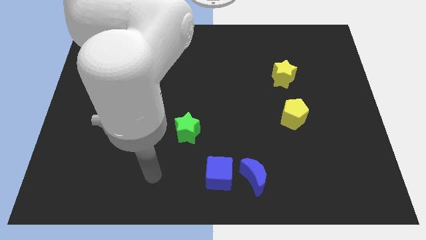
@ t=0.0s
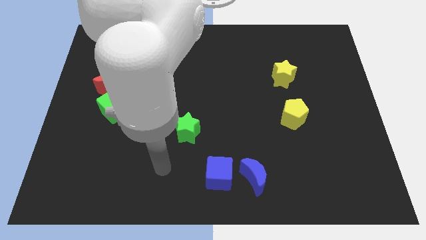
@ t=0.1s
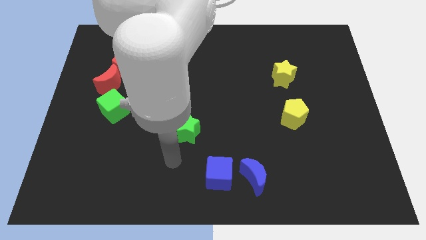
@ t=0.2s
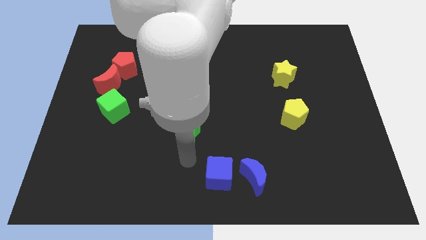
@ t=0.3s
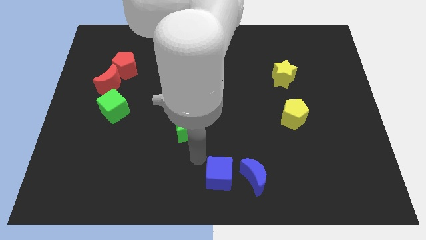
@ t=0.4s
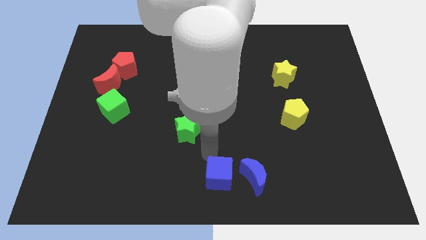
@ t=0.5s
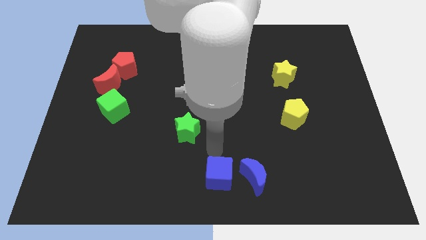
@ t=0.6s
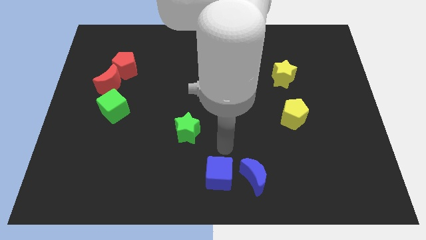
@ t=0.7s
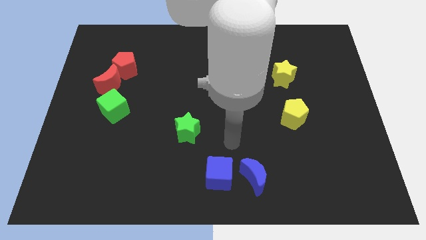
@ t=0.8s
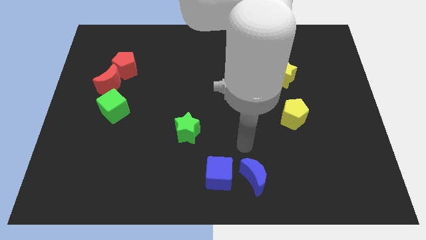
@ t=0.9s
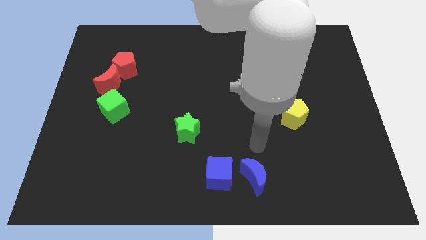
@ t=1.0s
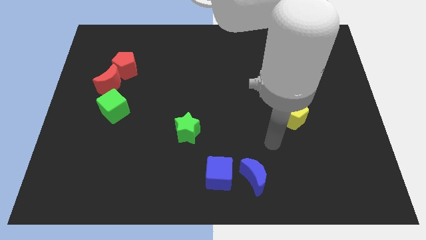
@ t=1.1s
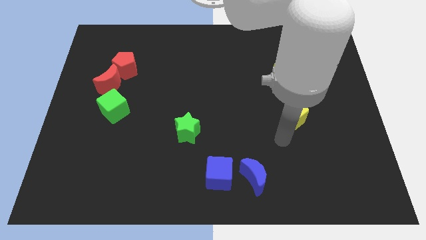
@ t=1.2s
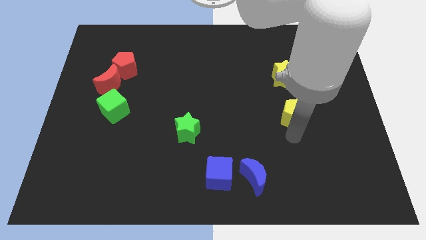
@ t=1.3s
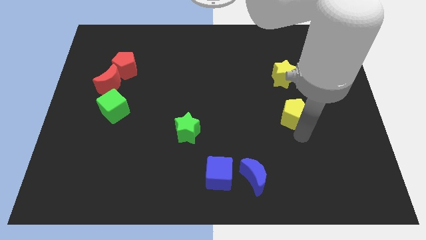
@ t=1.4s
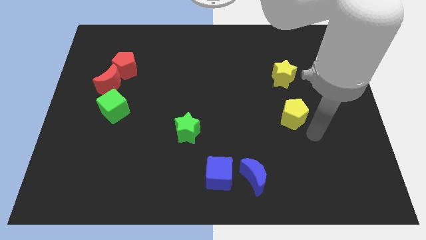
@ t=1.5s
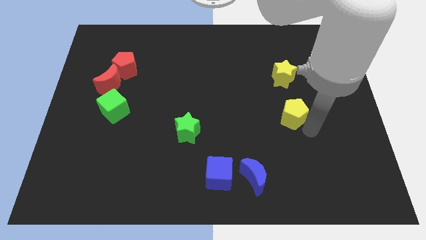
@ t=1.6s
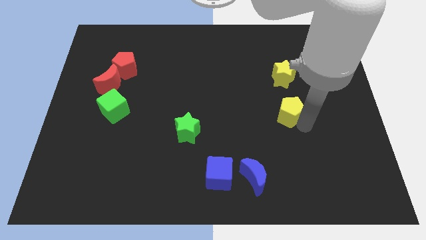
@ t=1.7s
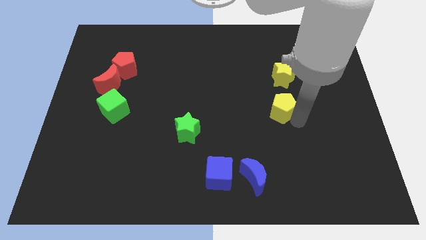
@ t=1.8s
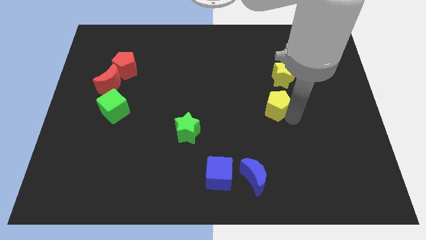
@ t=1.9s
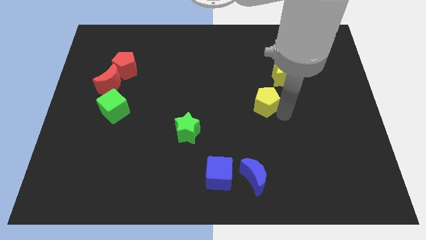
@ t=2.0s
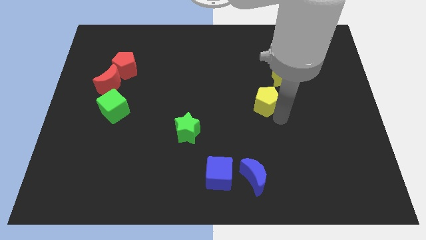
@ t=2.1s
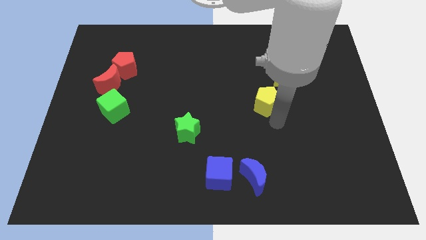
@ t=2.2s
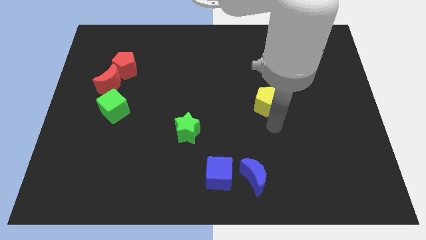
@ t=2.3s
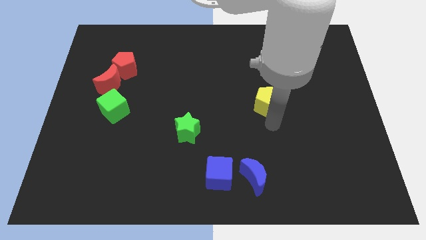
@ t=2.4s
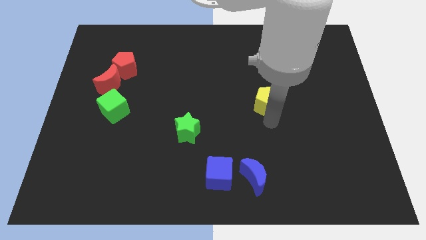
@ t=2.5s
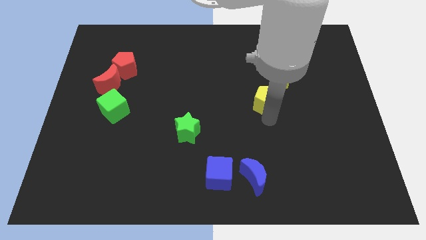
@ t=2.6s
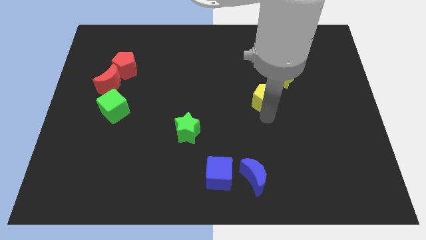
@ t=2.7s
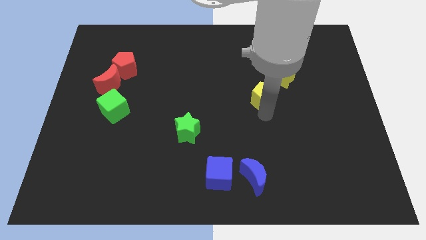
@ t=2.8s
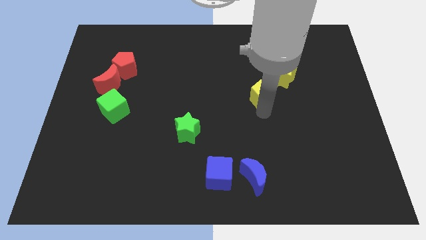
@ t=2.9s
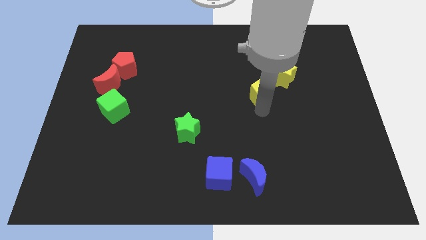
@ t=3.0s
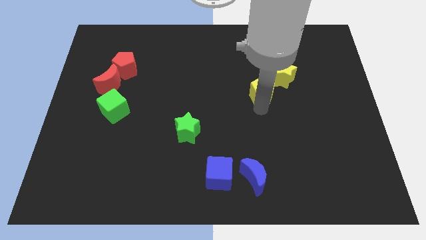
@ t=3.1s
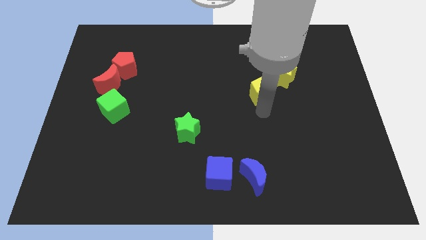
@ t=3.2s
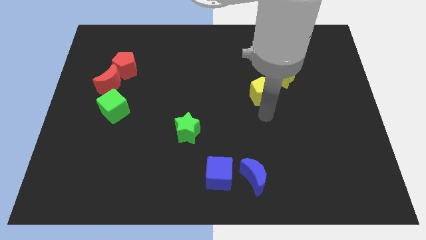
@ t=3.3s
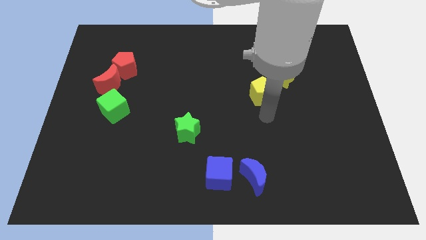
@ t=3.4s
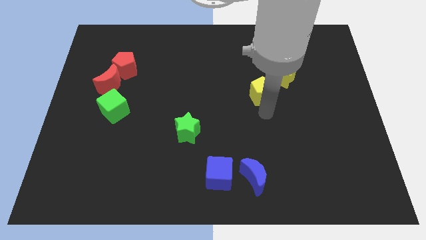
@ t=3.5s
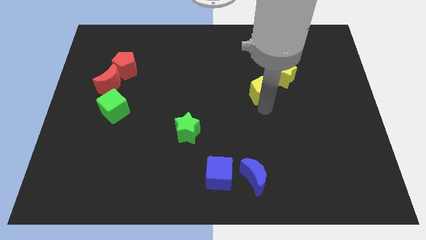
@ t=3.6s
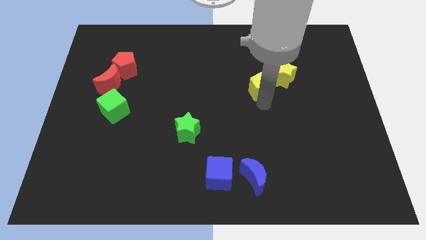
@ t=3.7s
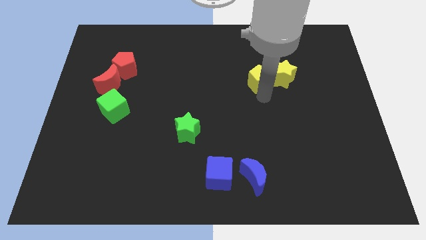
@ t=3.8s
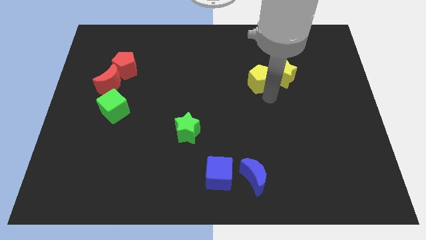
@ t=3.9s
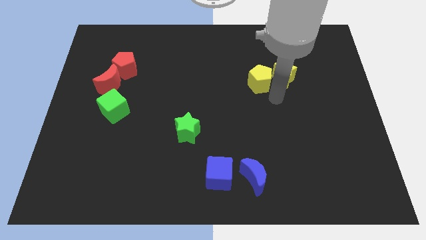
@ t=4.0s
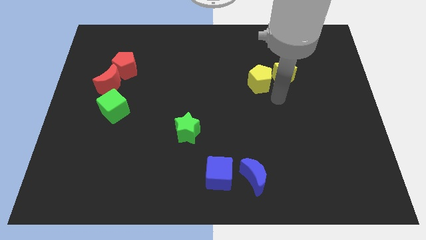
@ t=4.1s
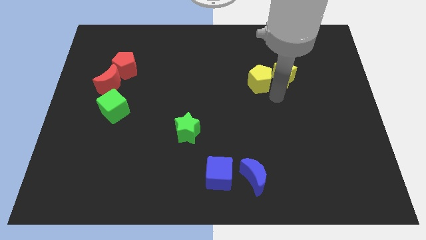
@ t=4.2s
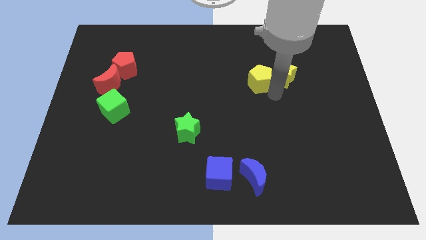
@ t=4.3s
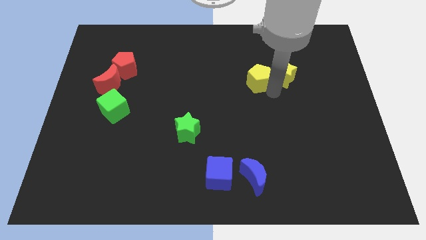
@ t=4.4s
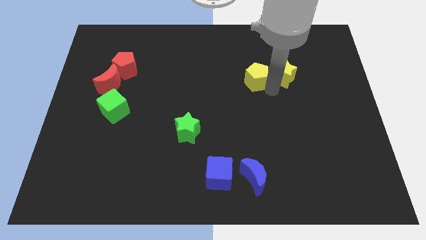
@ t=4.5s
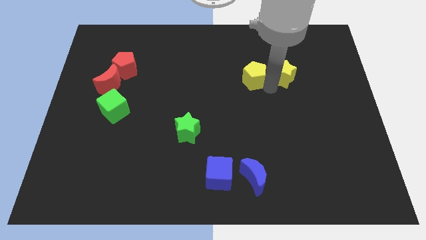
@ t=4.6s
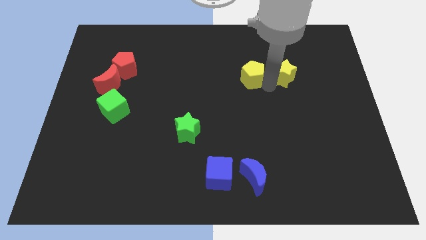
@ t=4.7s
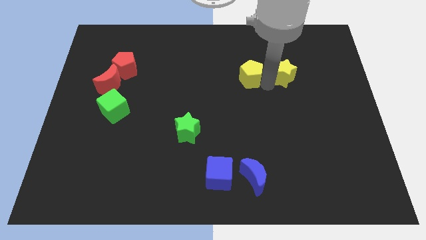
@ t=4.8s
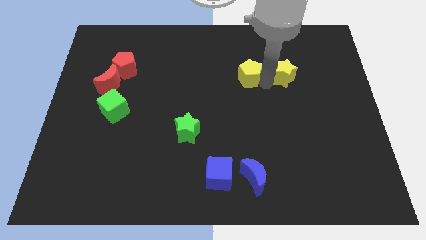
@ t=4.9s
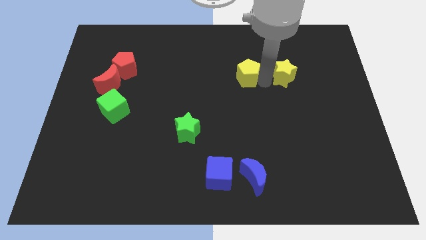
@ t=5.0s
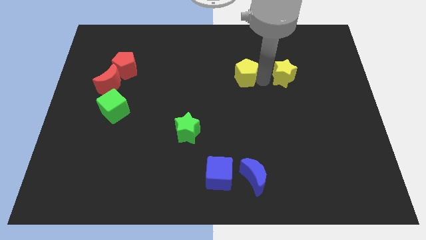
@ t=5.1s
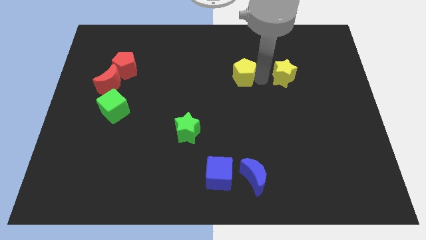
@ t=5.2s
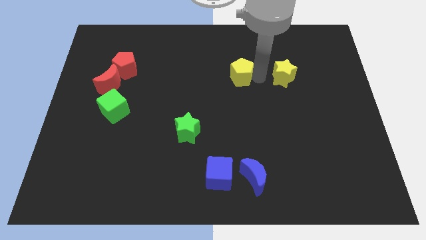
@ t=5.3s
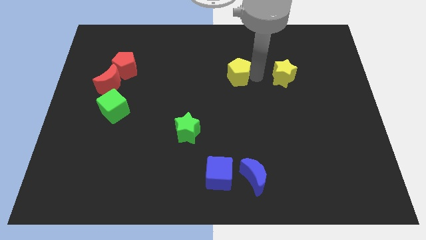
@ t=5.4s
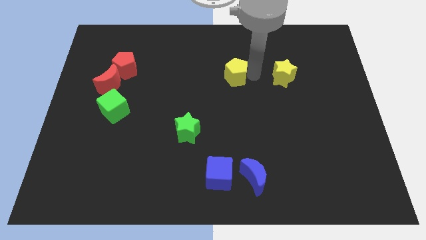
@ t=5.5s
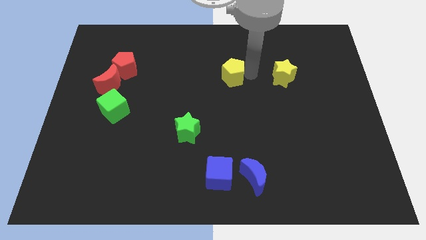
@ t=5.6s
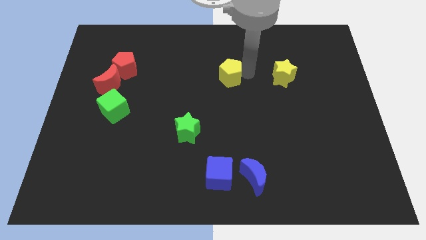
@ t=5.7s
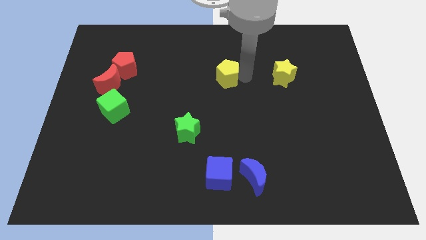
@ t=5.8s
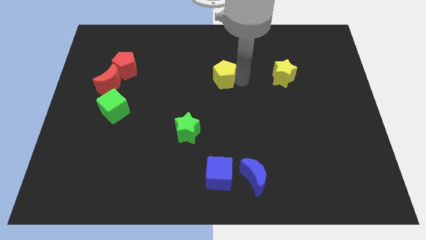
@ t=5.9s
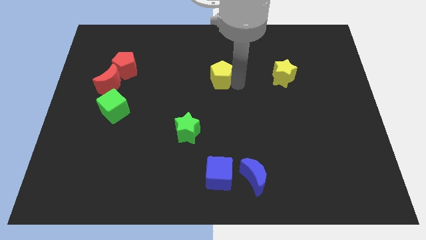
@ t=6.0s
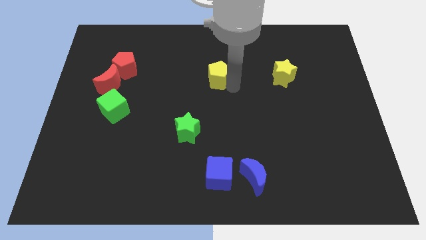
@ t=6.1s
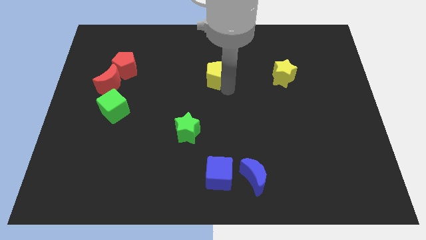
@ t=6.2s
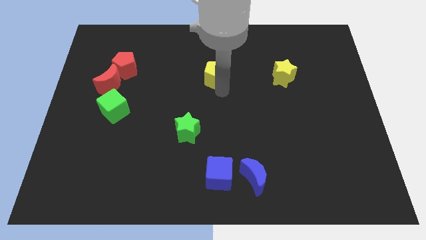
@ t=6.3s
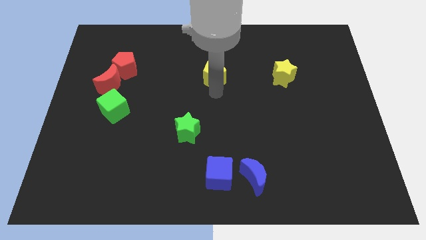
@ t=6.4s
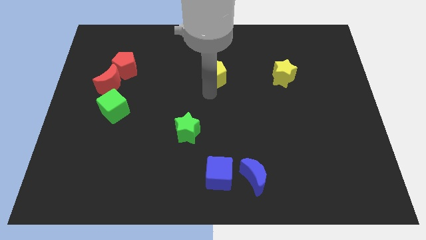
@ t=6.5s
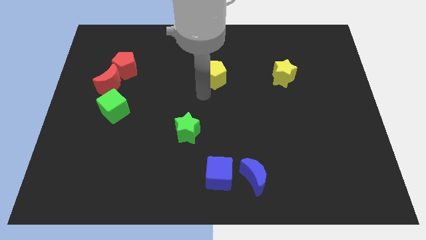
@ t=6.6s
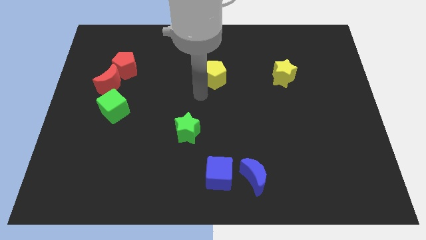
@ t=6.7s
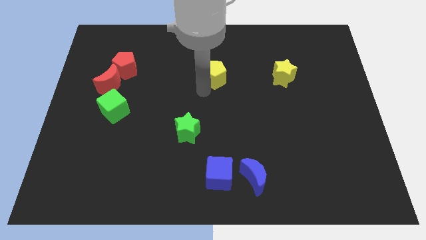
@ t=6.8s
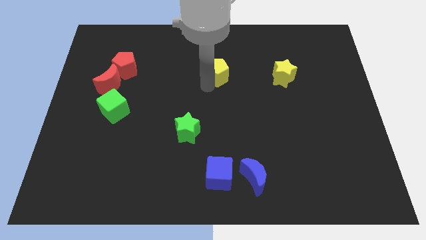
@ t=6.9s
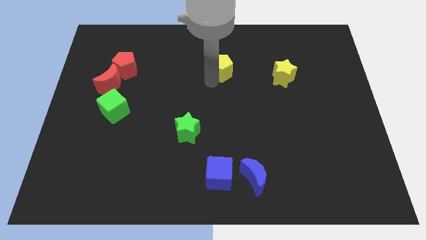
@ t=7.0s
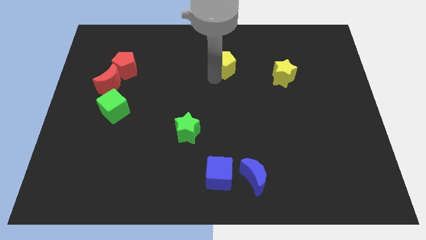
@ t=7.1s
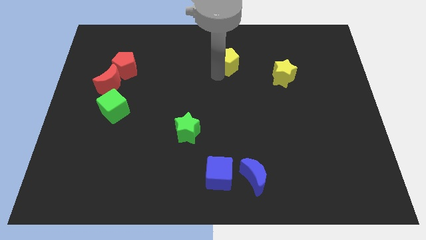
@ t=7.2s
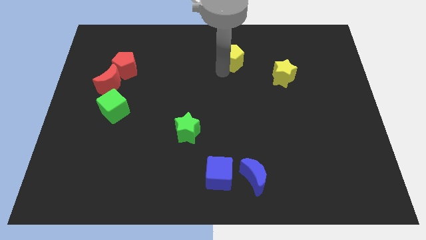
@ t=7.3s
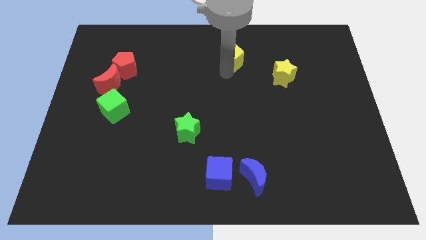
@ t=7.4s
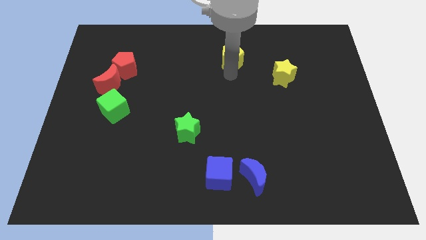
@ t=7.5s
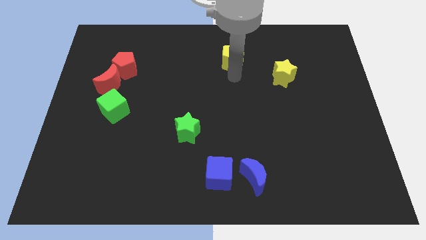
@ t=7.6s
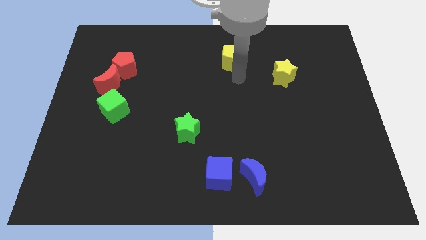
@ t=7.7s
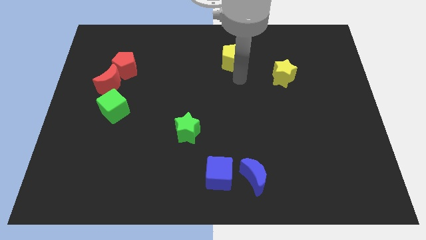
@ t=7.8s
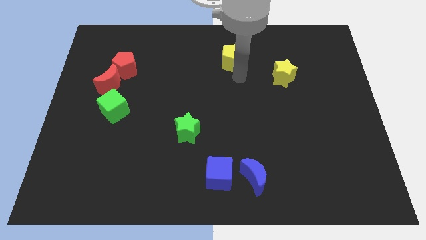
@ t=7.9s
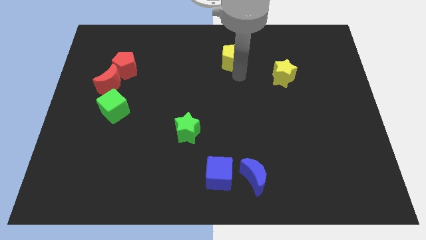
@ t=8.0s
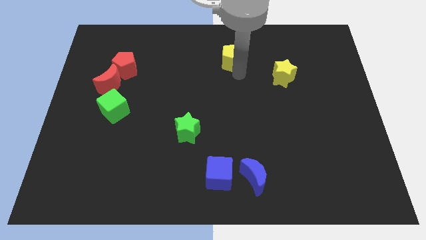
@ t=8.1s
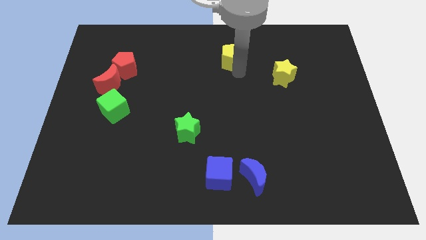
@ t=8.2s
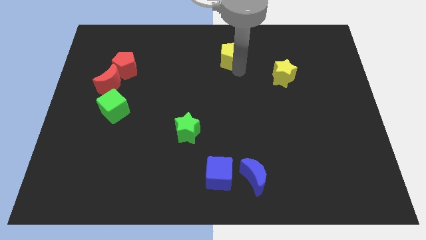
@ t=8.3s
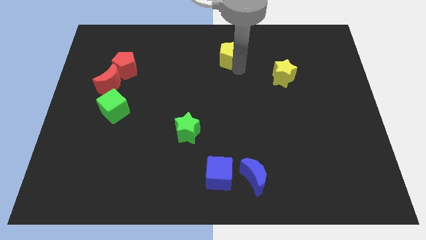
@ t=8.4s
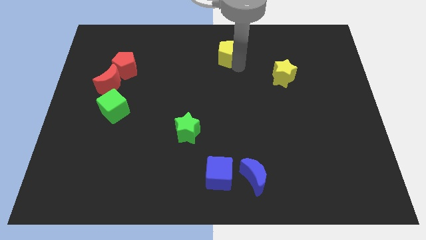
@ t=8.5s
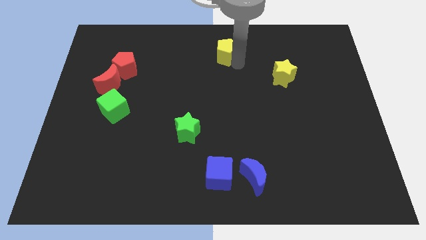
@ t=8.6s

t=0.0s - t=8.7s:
push the yellow pentagon to the top side
